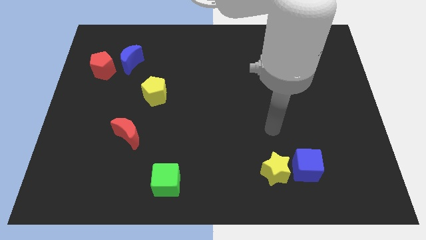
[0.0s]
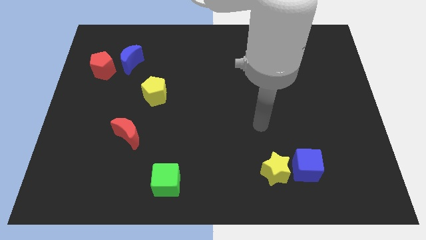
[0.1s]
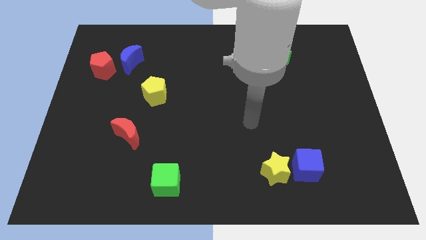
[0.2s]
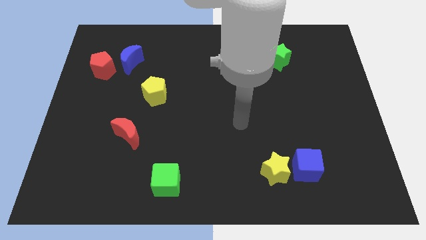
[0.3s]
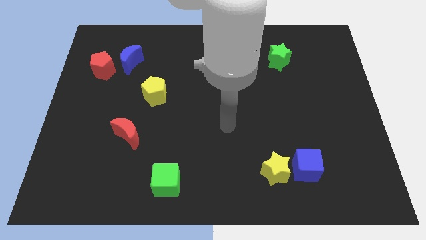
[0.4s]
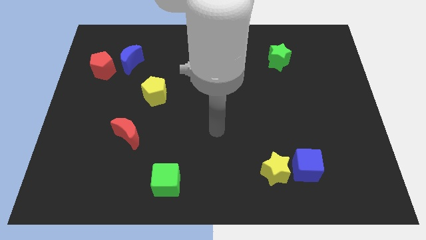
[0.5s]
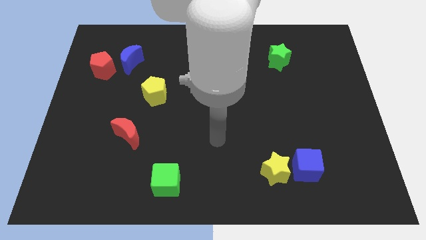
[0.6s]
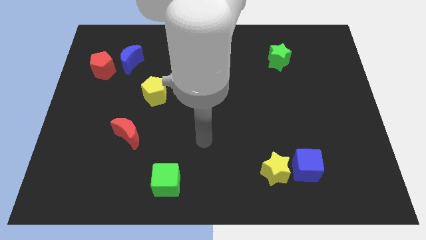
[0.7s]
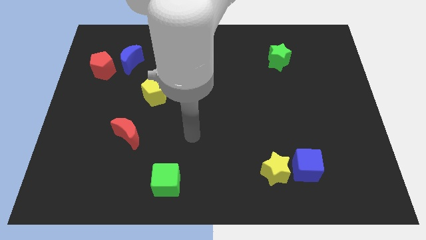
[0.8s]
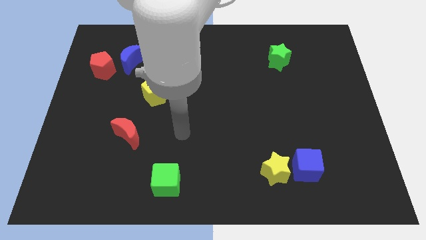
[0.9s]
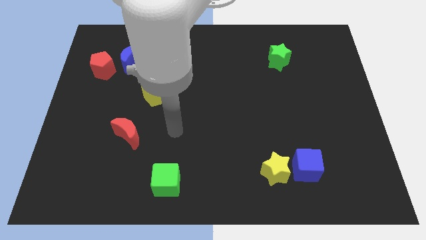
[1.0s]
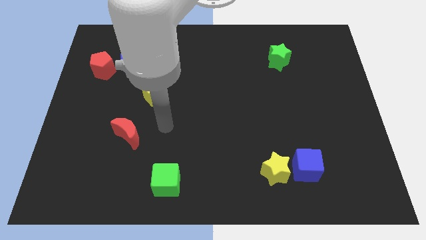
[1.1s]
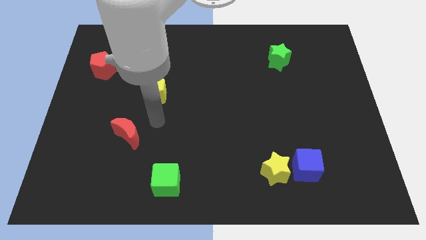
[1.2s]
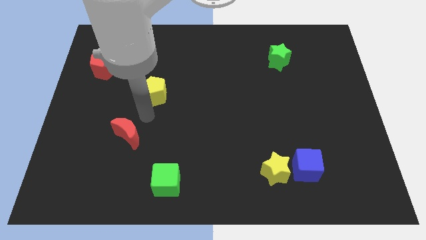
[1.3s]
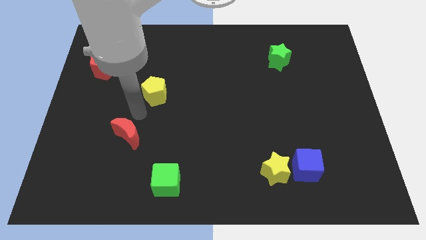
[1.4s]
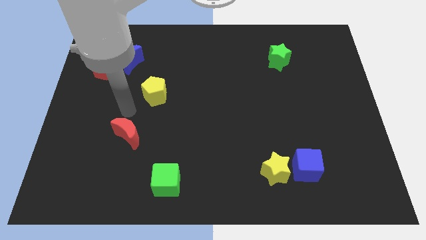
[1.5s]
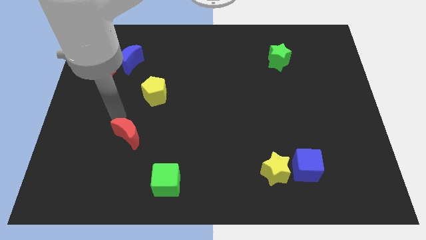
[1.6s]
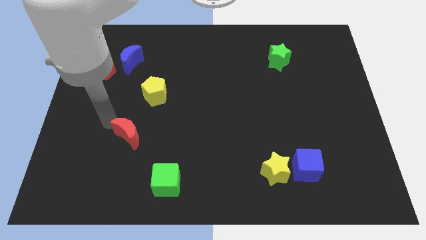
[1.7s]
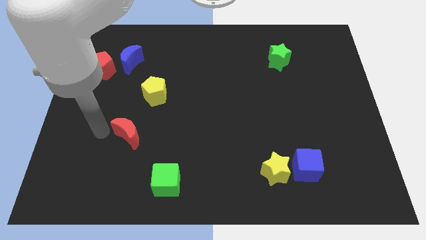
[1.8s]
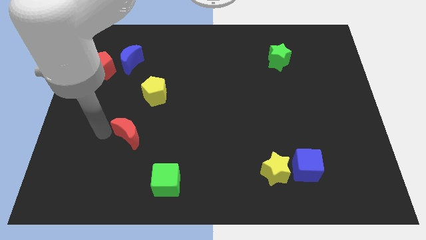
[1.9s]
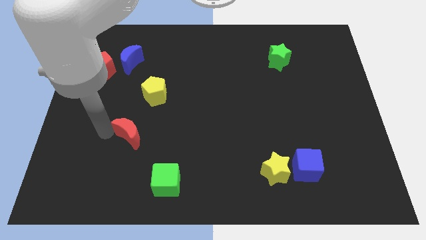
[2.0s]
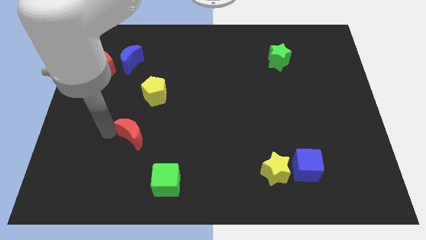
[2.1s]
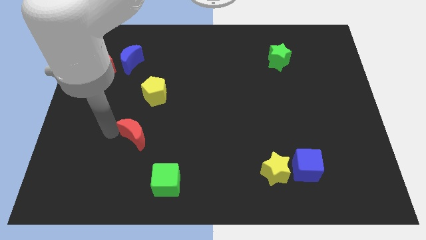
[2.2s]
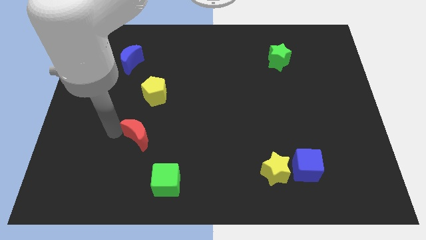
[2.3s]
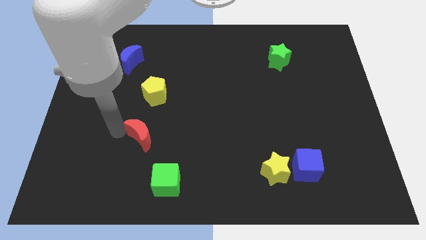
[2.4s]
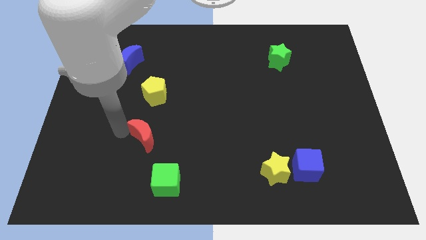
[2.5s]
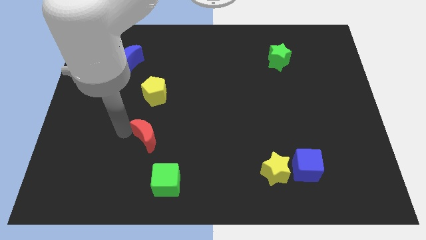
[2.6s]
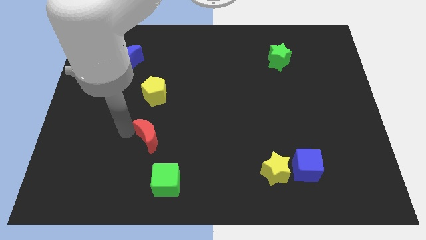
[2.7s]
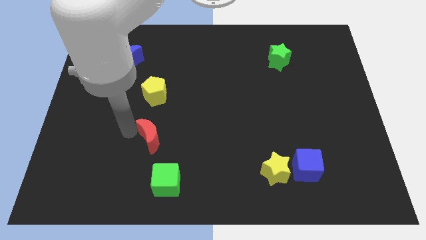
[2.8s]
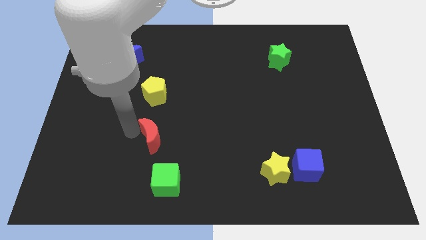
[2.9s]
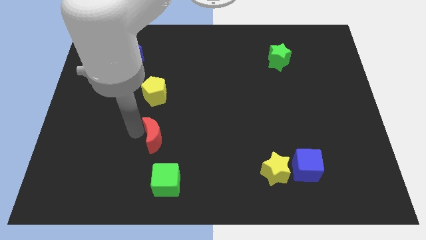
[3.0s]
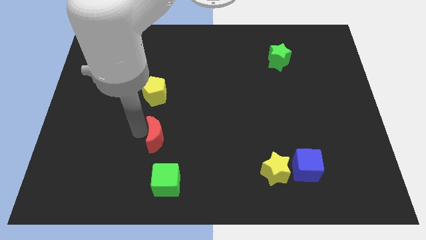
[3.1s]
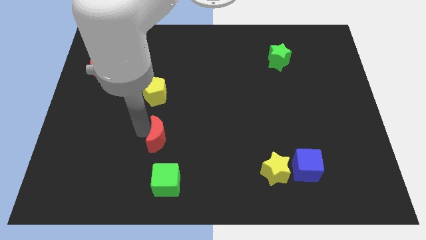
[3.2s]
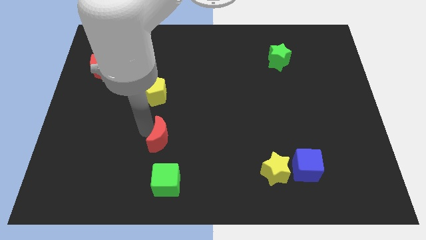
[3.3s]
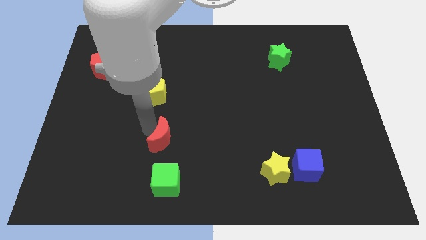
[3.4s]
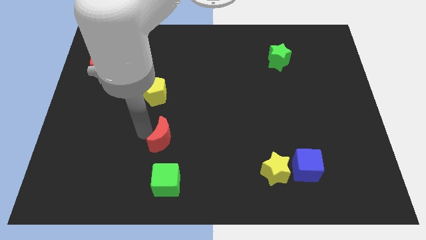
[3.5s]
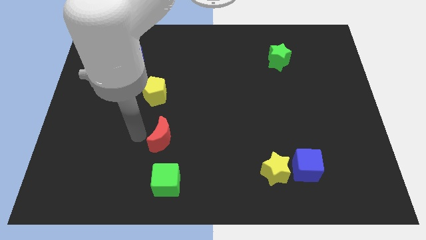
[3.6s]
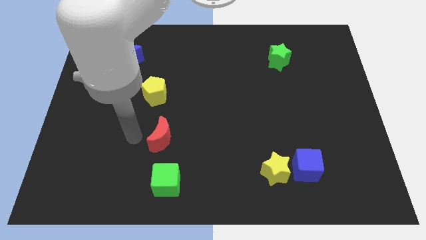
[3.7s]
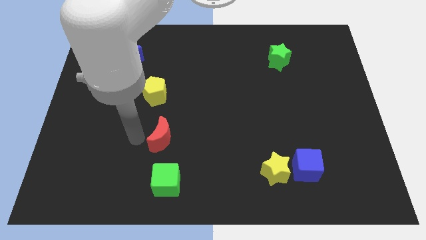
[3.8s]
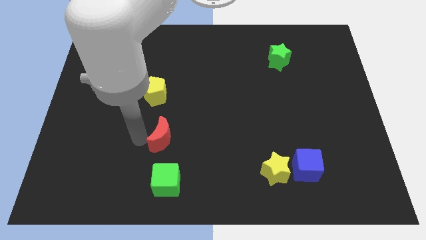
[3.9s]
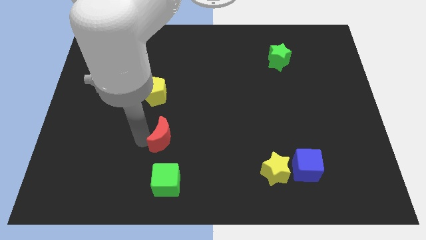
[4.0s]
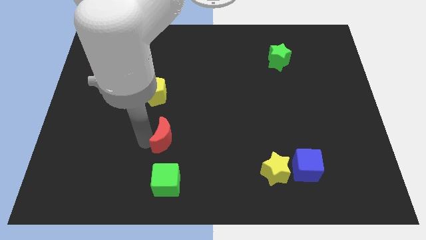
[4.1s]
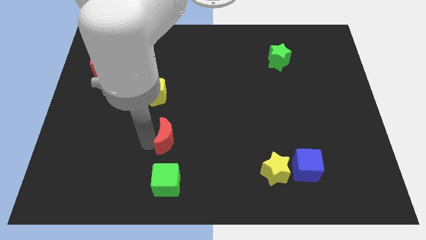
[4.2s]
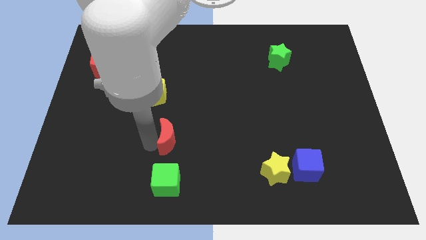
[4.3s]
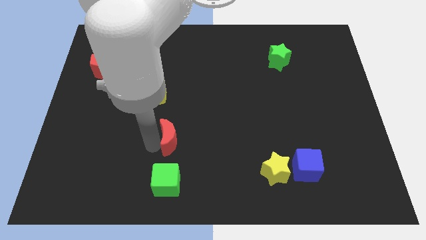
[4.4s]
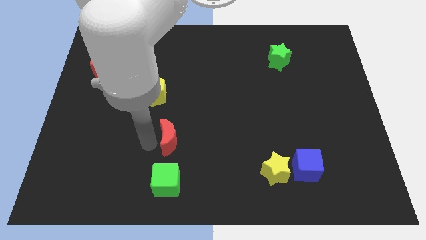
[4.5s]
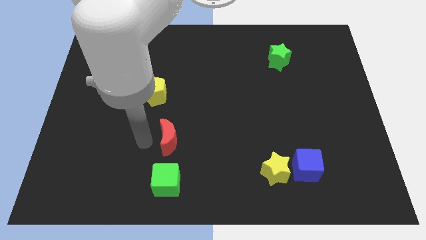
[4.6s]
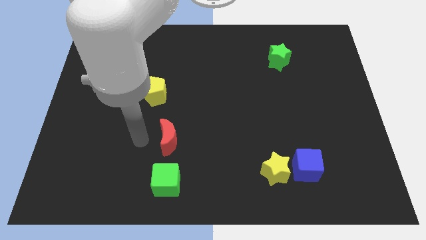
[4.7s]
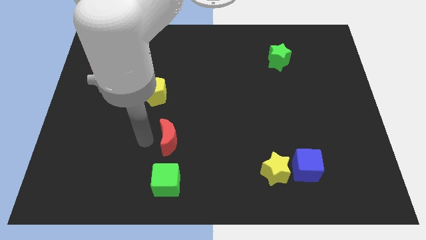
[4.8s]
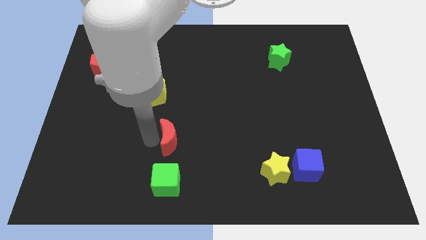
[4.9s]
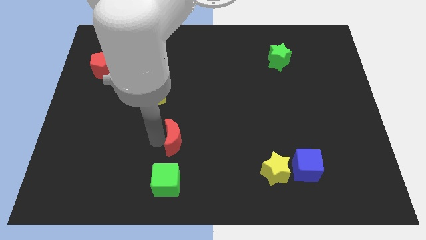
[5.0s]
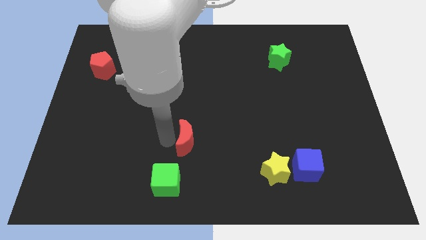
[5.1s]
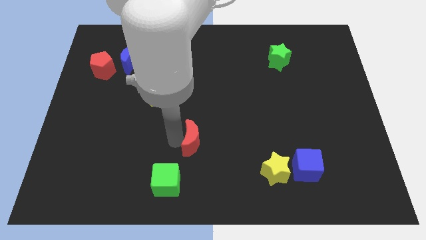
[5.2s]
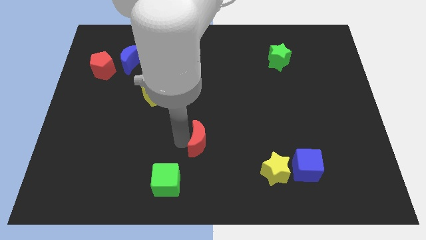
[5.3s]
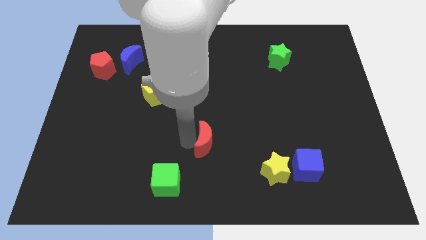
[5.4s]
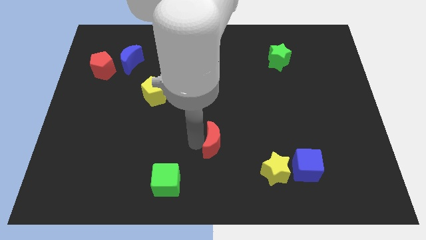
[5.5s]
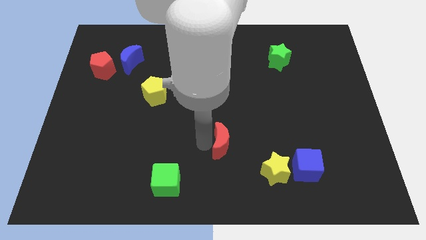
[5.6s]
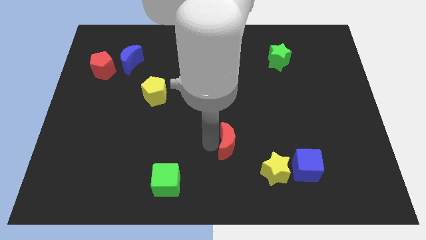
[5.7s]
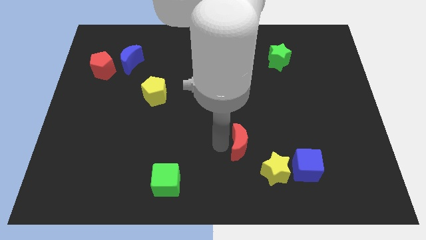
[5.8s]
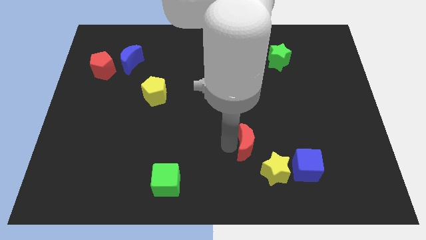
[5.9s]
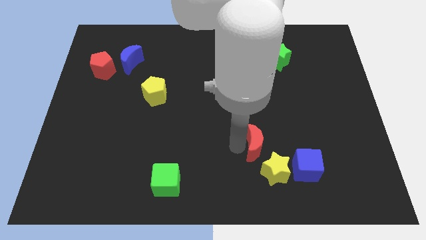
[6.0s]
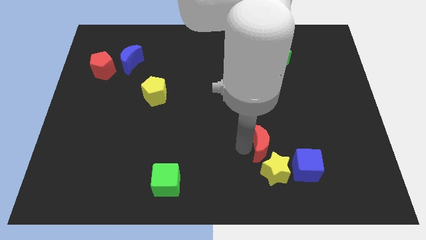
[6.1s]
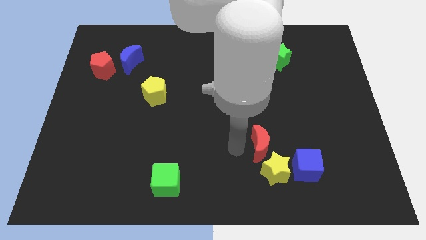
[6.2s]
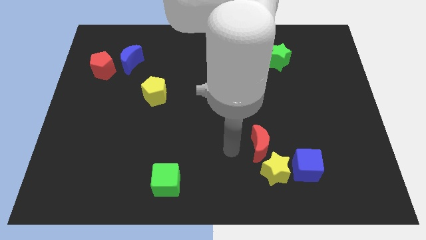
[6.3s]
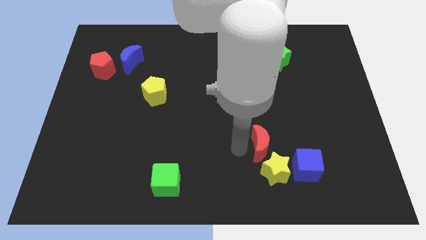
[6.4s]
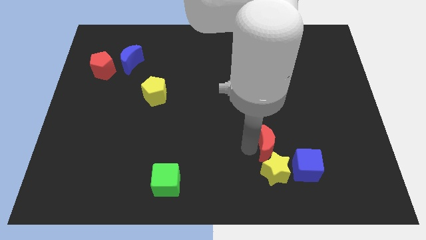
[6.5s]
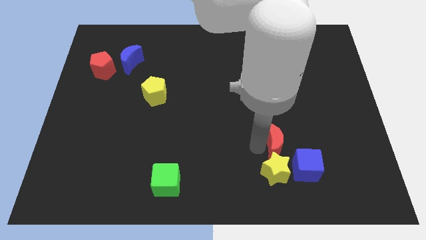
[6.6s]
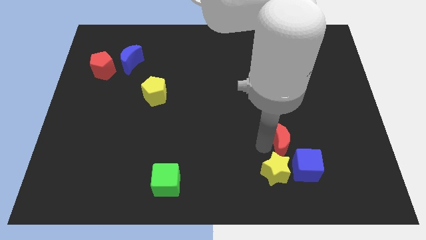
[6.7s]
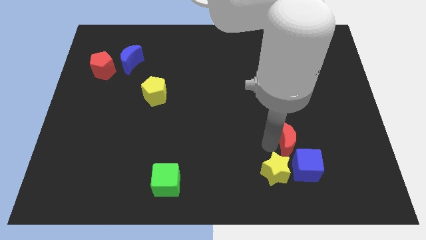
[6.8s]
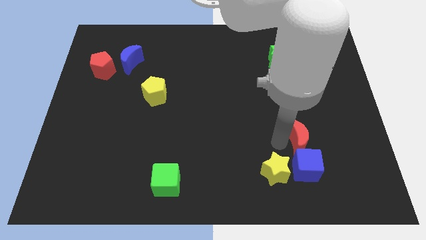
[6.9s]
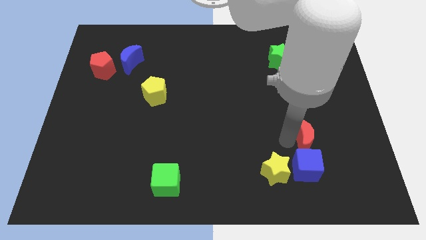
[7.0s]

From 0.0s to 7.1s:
move the red moon to the top right side of the blue cube
